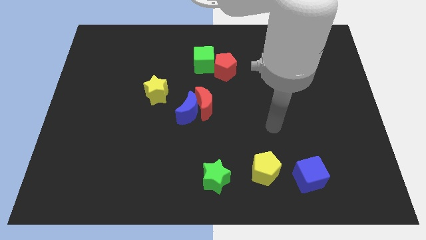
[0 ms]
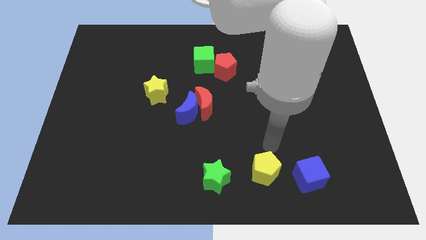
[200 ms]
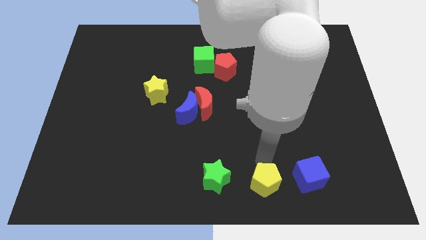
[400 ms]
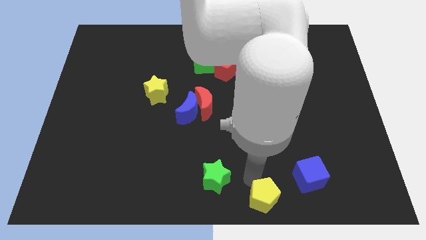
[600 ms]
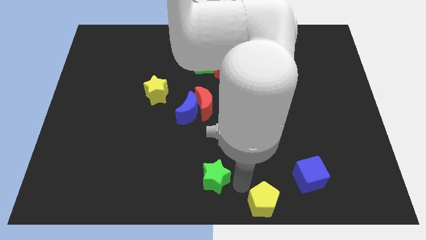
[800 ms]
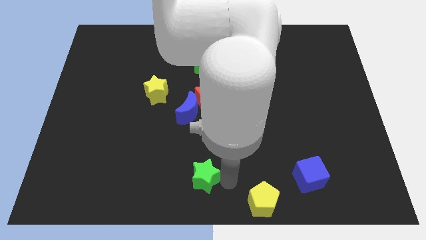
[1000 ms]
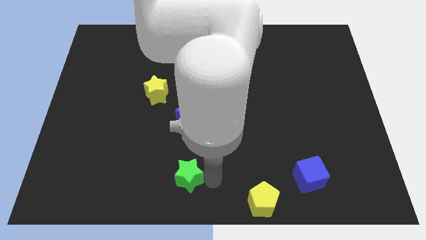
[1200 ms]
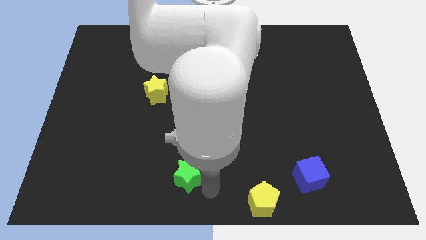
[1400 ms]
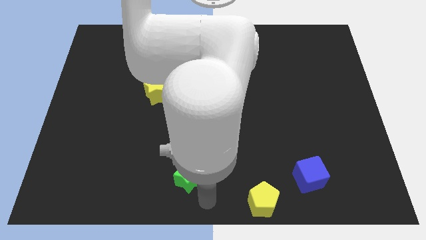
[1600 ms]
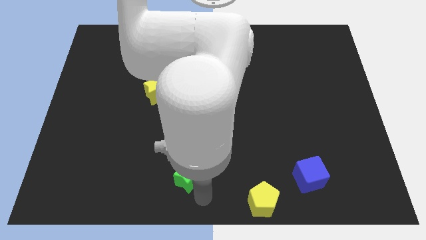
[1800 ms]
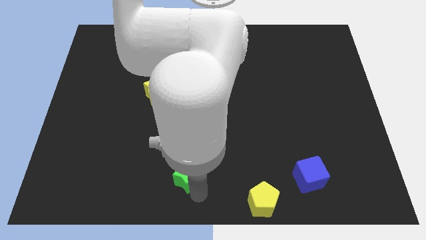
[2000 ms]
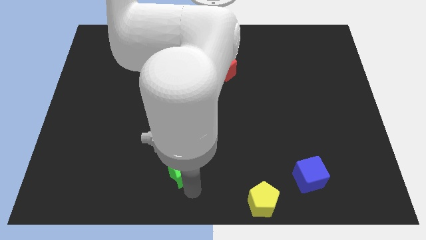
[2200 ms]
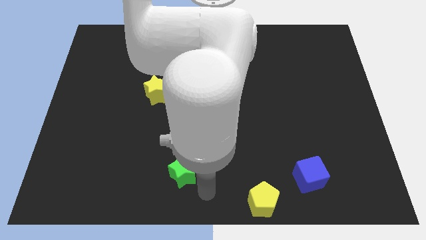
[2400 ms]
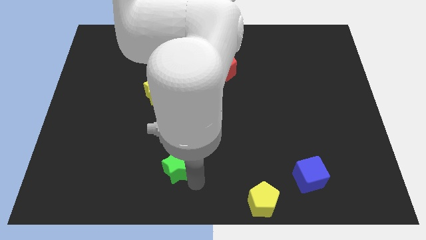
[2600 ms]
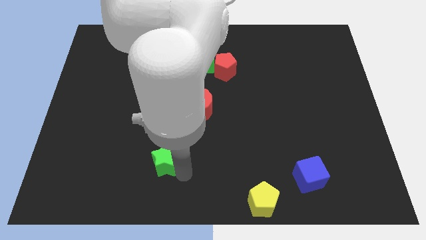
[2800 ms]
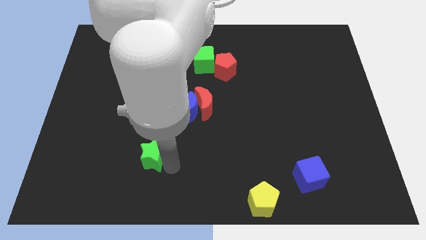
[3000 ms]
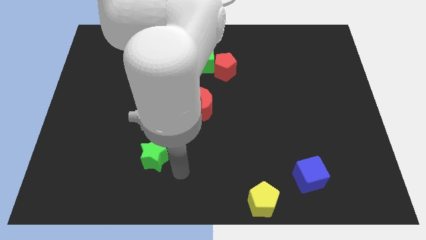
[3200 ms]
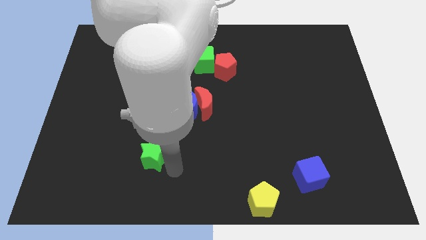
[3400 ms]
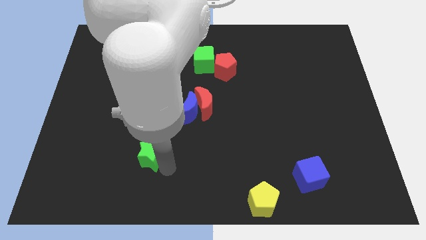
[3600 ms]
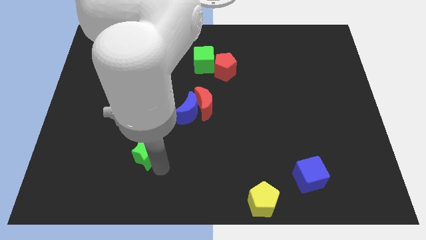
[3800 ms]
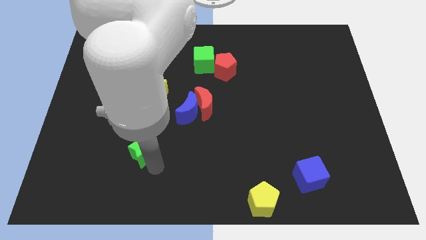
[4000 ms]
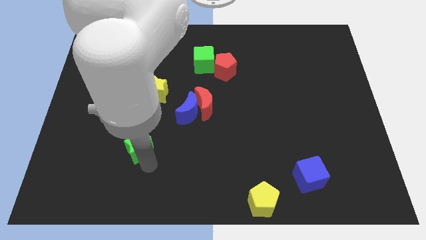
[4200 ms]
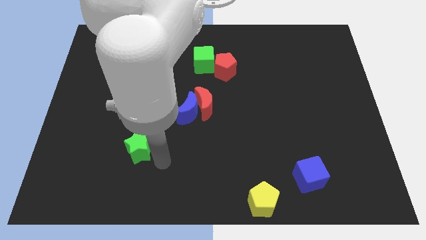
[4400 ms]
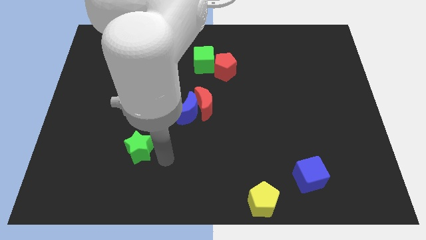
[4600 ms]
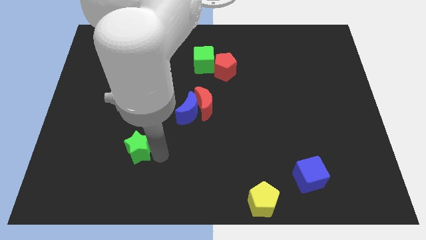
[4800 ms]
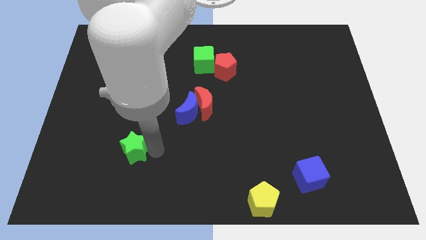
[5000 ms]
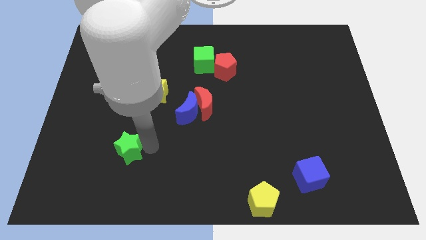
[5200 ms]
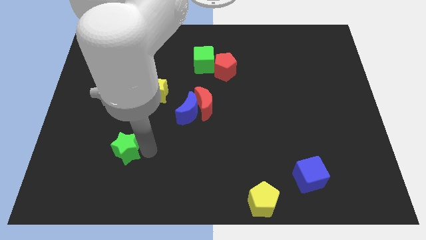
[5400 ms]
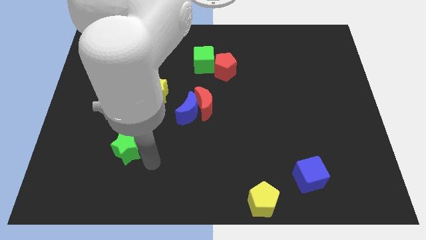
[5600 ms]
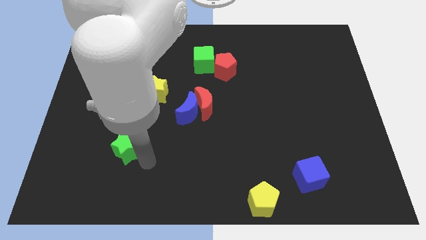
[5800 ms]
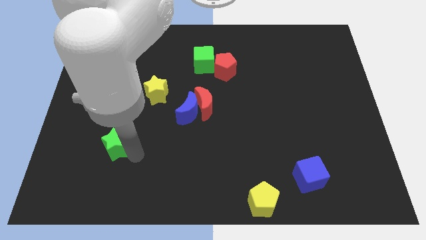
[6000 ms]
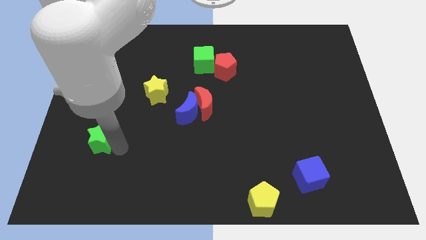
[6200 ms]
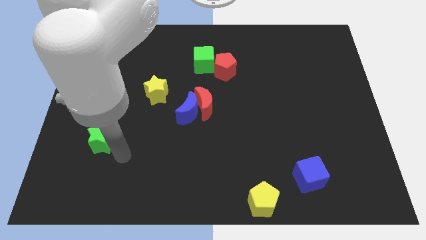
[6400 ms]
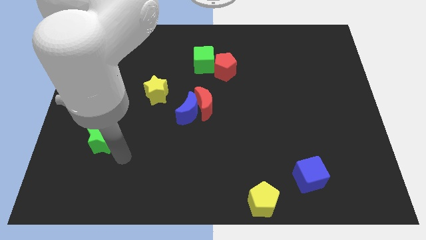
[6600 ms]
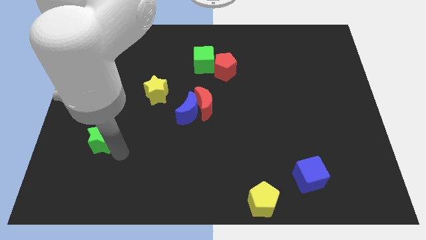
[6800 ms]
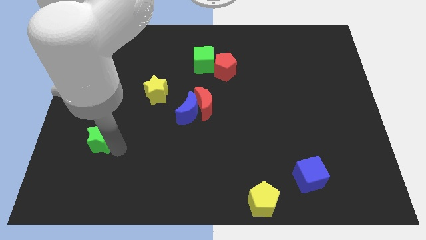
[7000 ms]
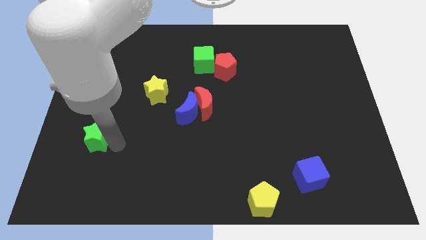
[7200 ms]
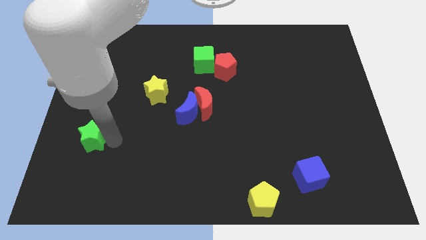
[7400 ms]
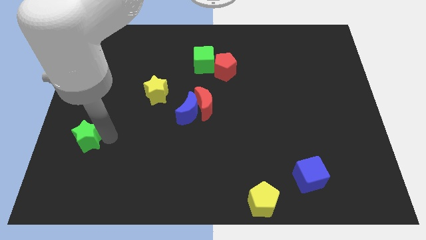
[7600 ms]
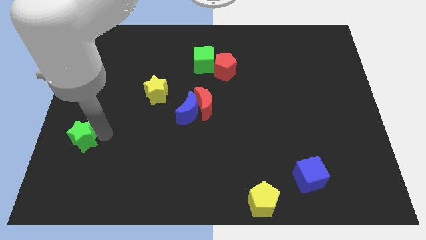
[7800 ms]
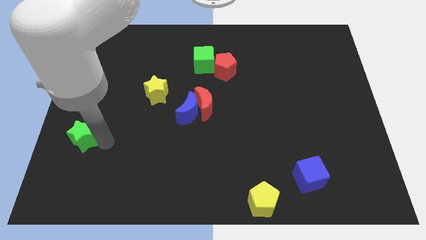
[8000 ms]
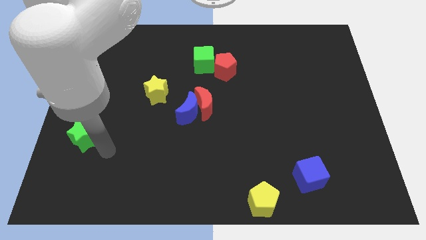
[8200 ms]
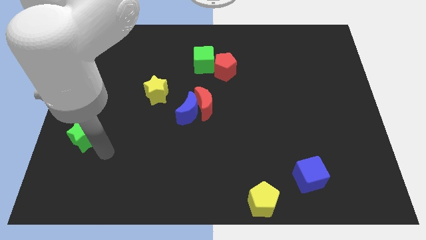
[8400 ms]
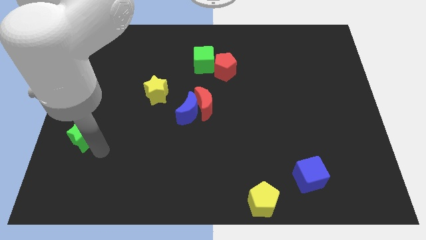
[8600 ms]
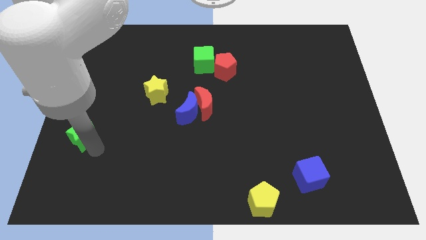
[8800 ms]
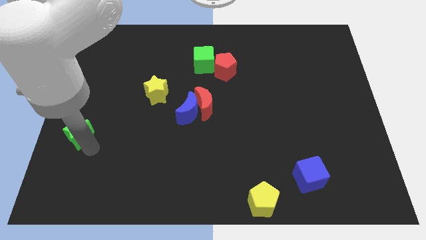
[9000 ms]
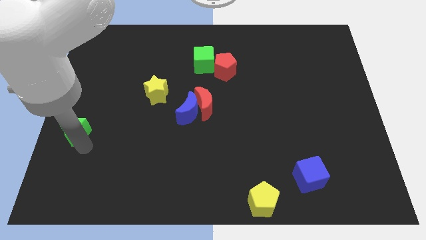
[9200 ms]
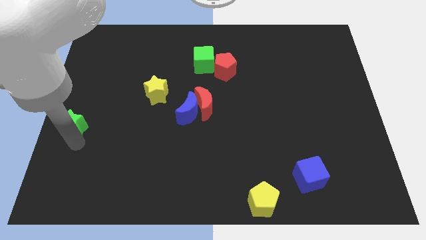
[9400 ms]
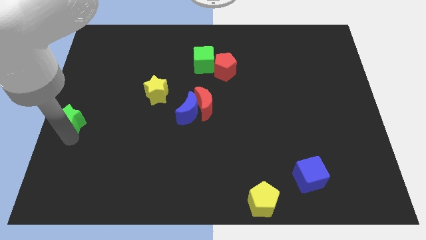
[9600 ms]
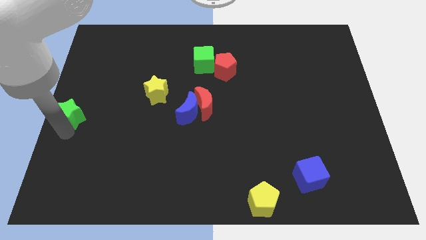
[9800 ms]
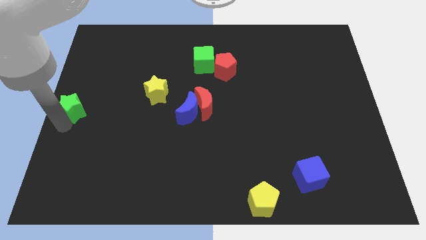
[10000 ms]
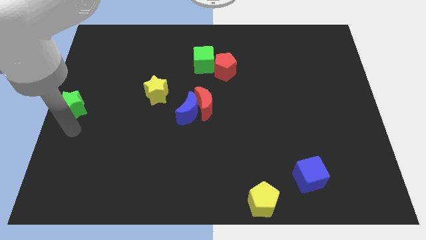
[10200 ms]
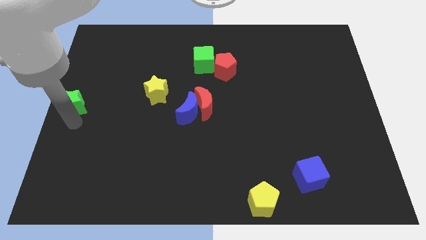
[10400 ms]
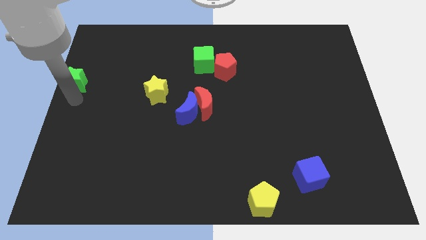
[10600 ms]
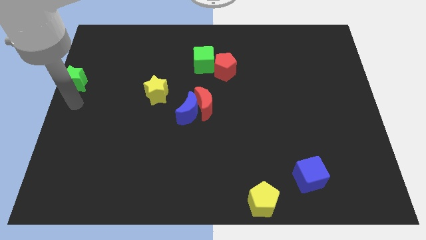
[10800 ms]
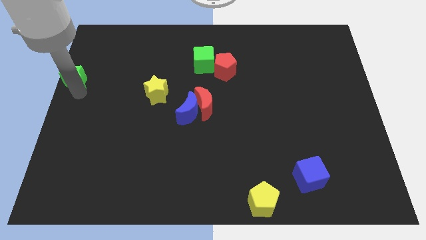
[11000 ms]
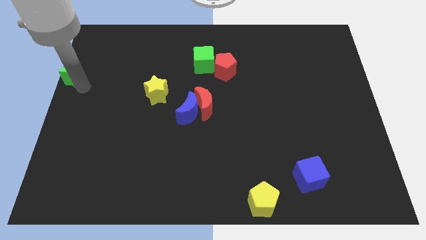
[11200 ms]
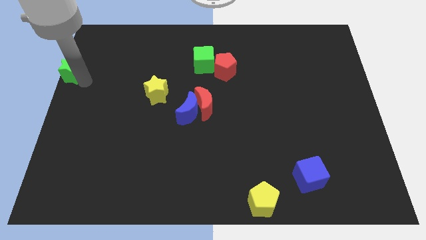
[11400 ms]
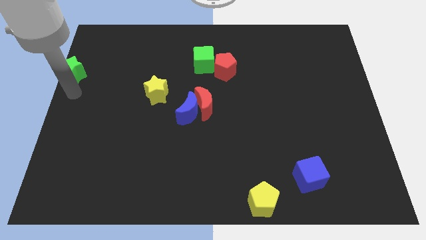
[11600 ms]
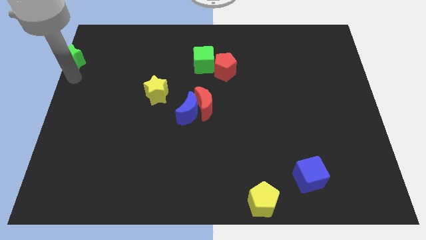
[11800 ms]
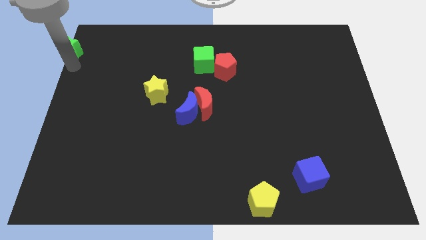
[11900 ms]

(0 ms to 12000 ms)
slide the green star to the top left
